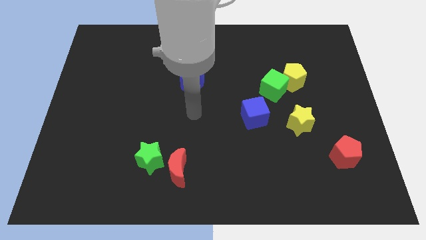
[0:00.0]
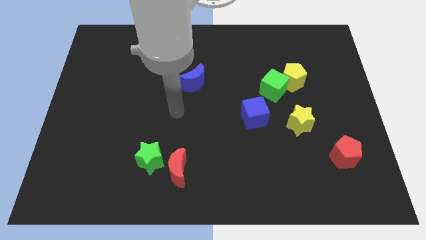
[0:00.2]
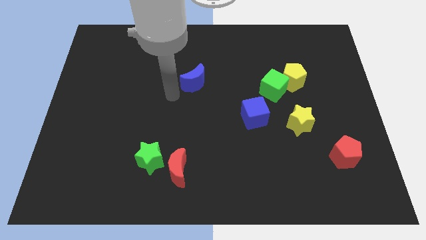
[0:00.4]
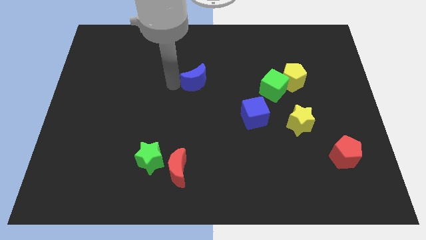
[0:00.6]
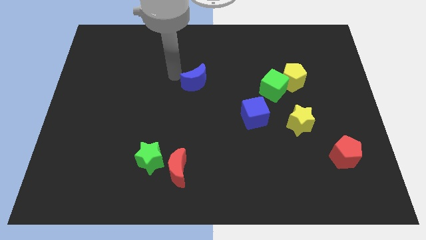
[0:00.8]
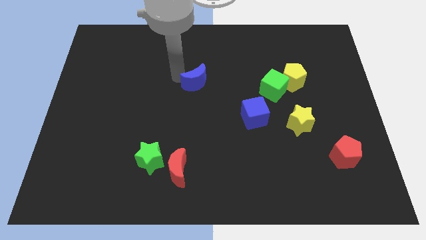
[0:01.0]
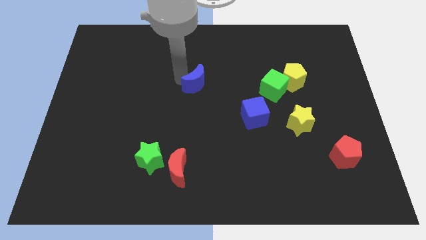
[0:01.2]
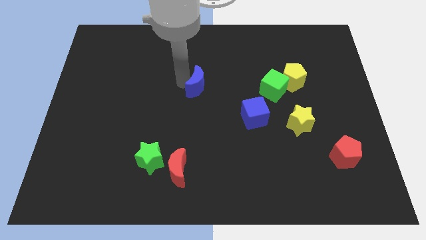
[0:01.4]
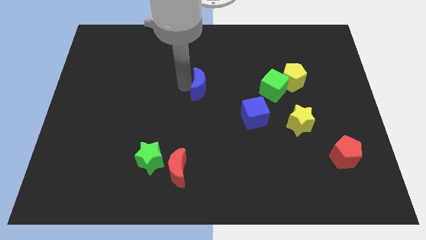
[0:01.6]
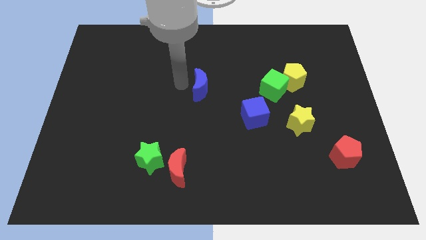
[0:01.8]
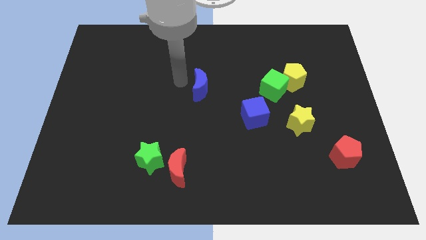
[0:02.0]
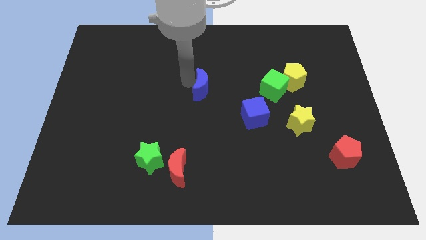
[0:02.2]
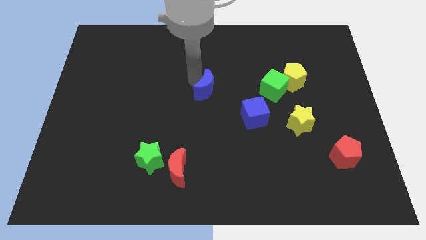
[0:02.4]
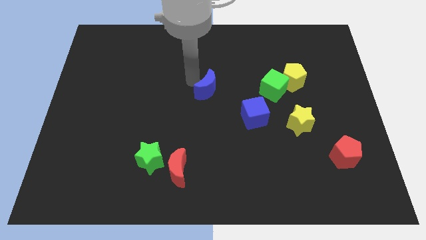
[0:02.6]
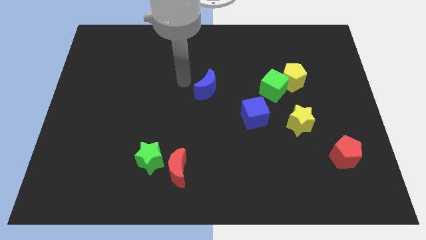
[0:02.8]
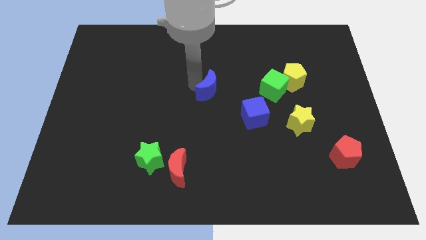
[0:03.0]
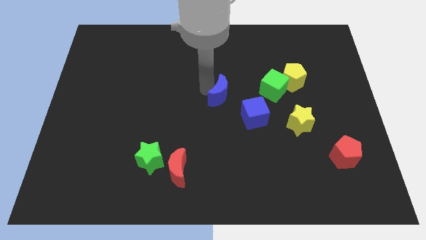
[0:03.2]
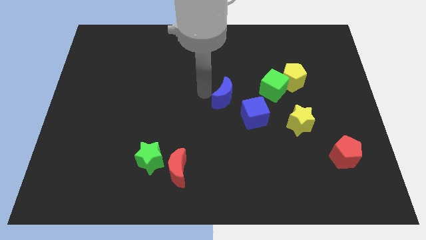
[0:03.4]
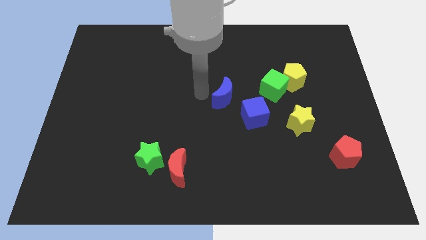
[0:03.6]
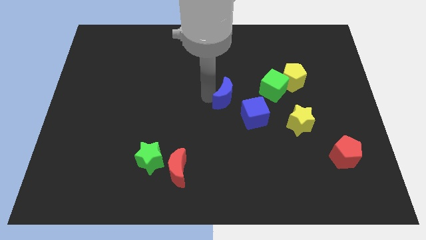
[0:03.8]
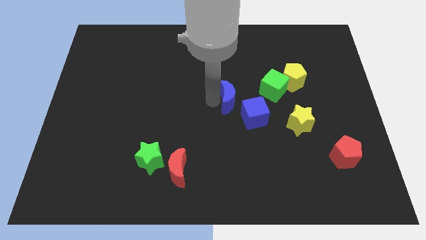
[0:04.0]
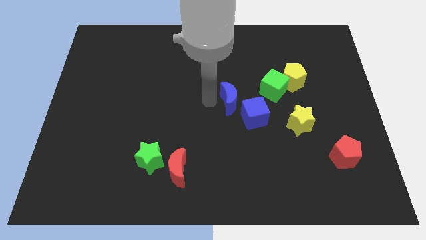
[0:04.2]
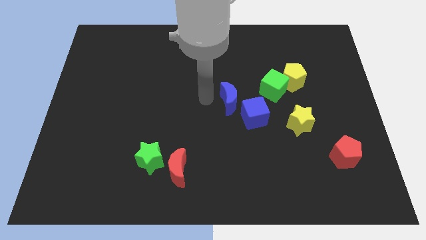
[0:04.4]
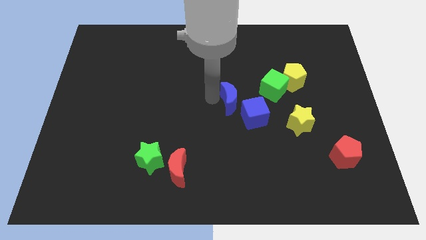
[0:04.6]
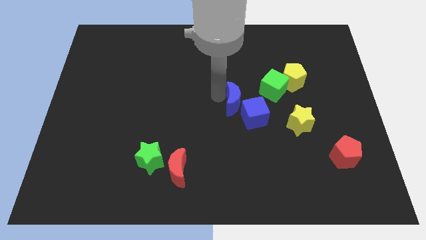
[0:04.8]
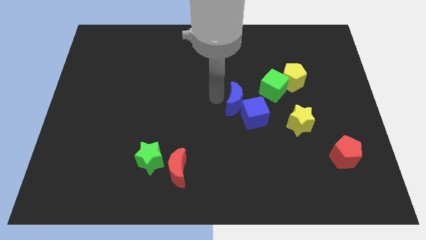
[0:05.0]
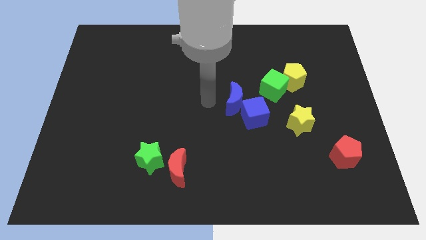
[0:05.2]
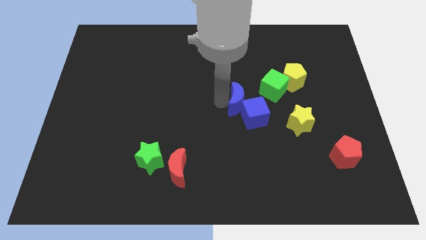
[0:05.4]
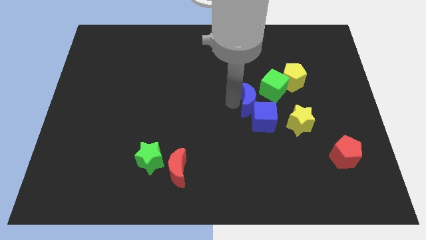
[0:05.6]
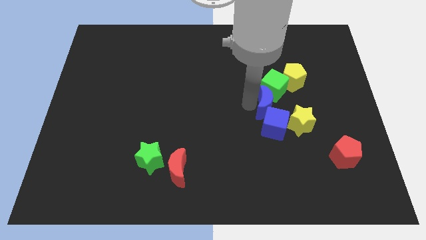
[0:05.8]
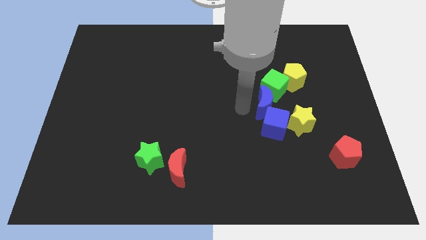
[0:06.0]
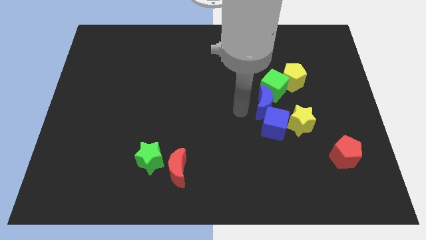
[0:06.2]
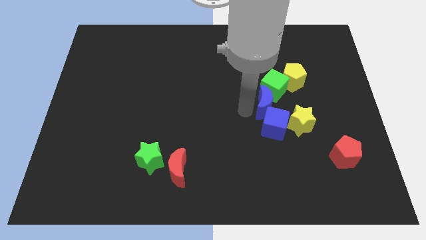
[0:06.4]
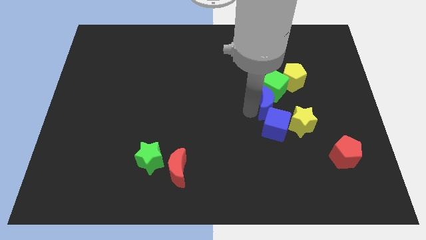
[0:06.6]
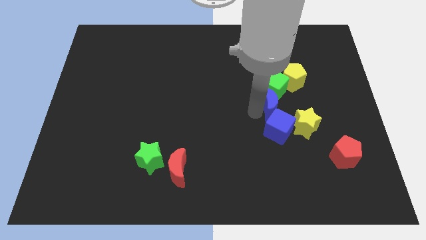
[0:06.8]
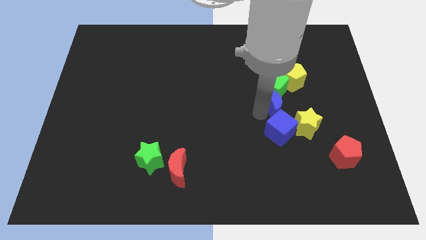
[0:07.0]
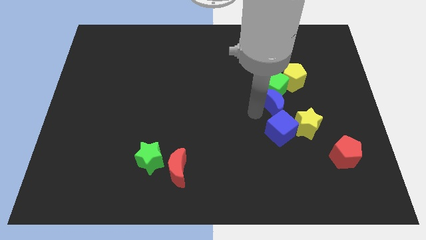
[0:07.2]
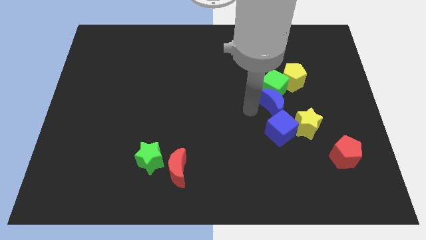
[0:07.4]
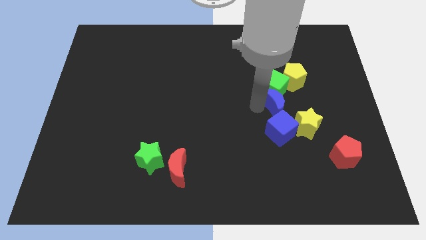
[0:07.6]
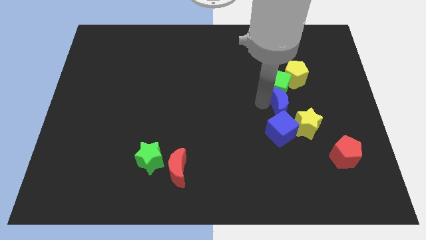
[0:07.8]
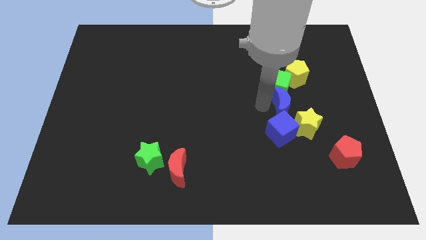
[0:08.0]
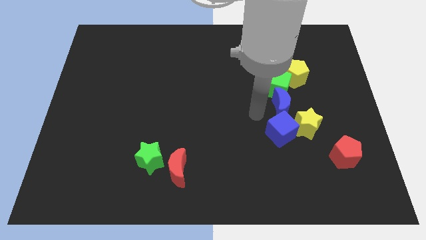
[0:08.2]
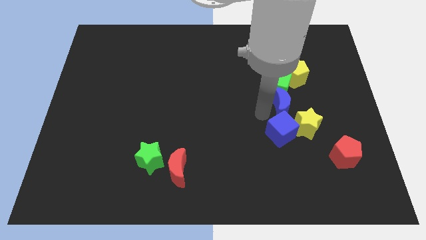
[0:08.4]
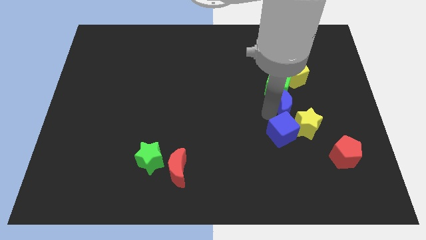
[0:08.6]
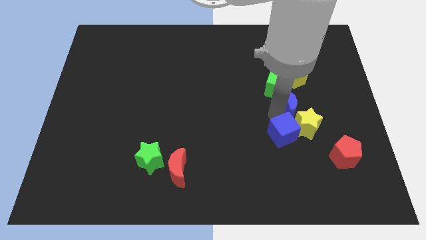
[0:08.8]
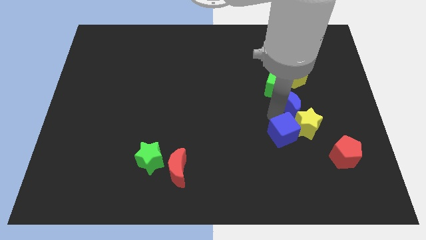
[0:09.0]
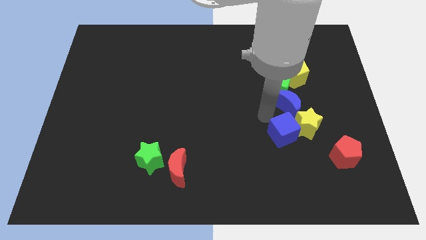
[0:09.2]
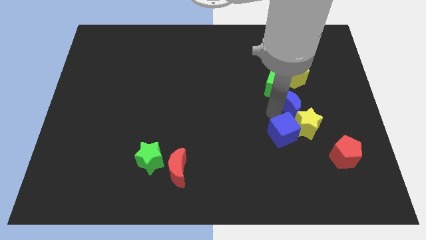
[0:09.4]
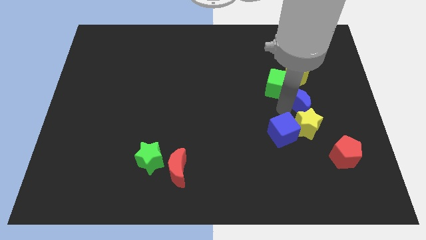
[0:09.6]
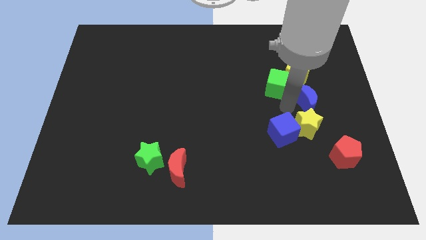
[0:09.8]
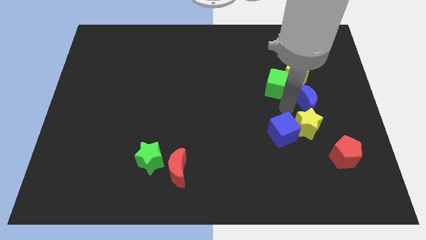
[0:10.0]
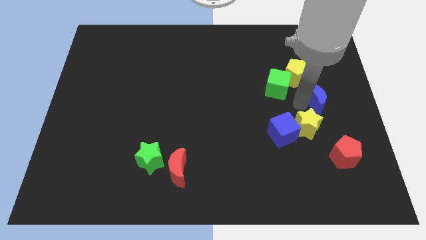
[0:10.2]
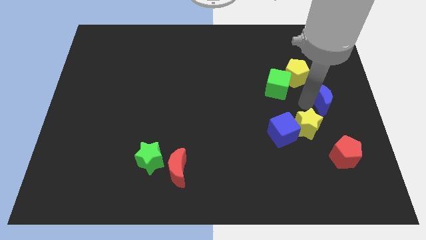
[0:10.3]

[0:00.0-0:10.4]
slide the blue moon to the center right
